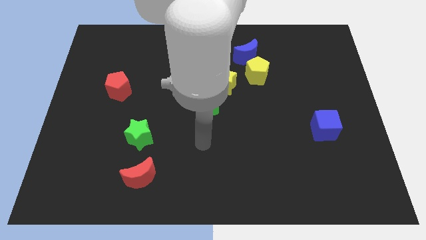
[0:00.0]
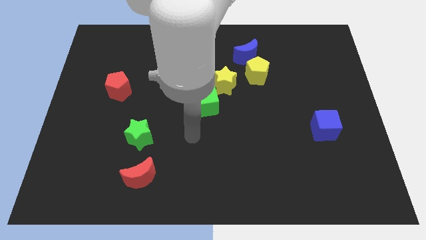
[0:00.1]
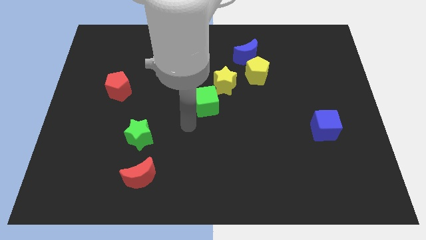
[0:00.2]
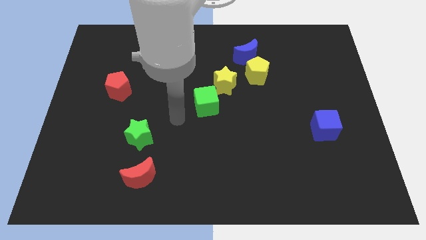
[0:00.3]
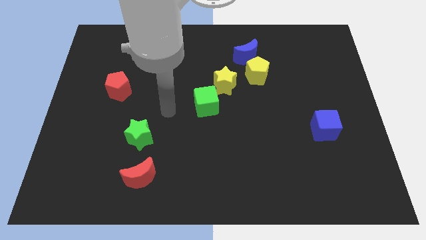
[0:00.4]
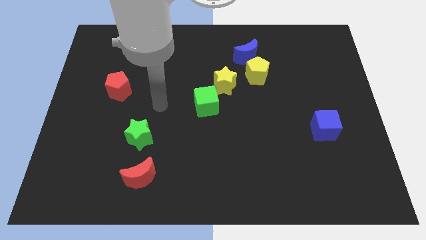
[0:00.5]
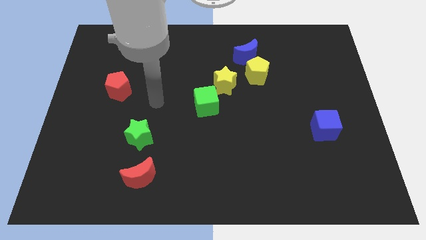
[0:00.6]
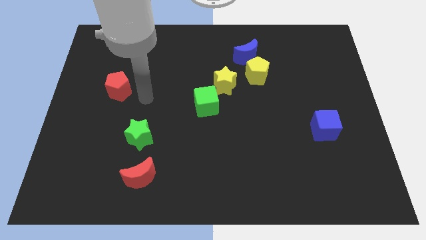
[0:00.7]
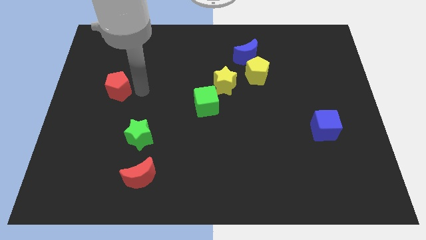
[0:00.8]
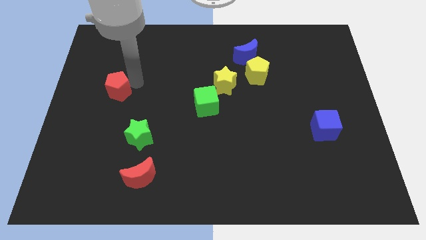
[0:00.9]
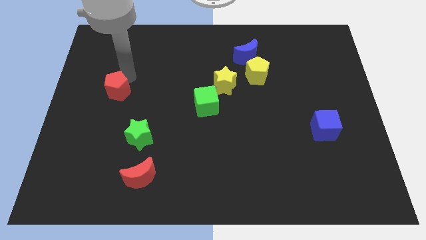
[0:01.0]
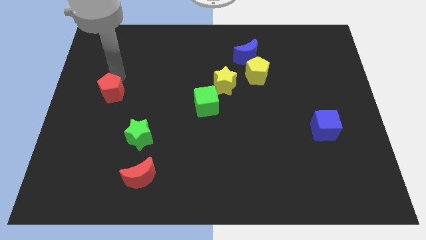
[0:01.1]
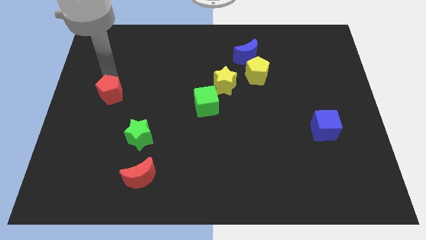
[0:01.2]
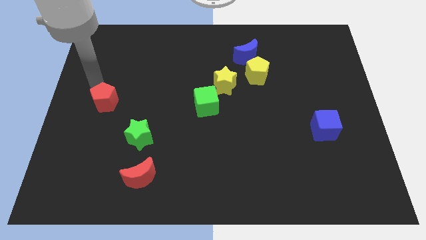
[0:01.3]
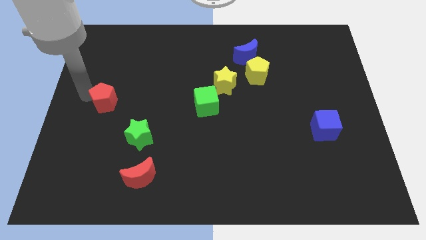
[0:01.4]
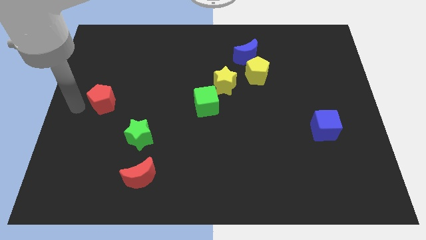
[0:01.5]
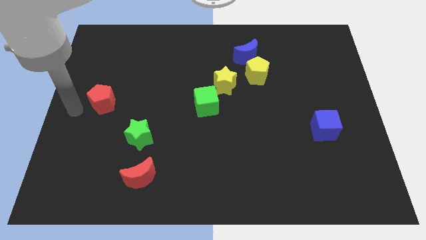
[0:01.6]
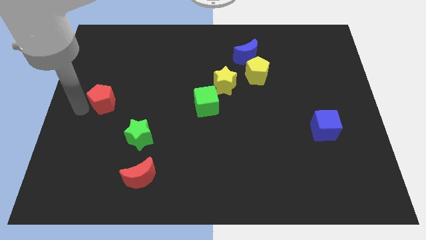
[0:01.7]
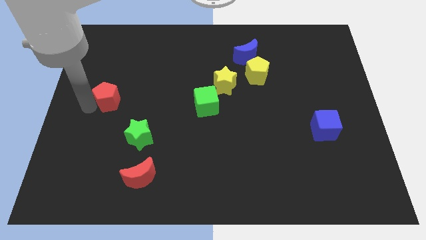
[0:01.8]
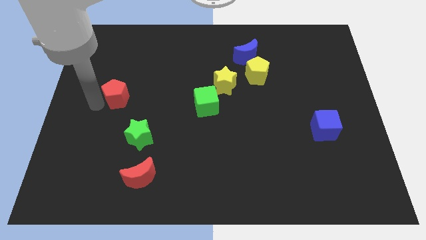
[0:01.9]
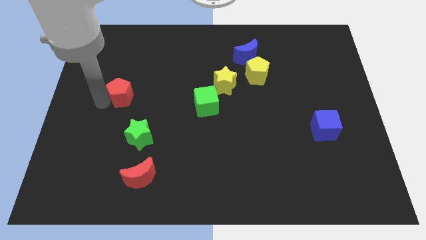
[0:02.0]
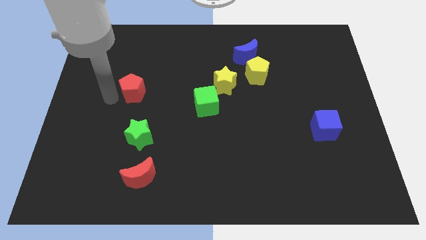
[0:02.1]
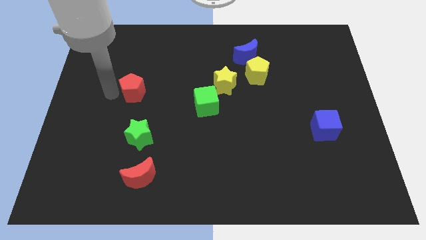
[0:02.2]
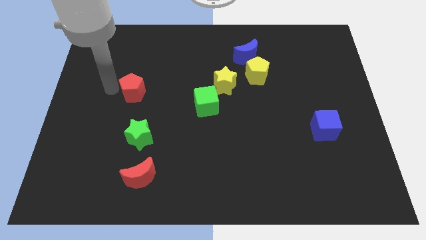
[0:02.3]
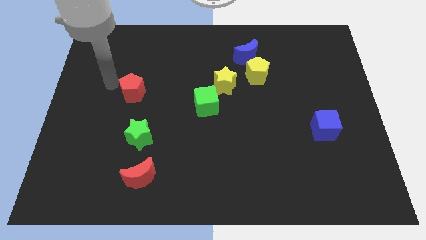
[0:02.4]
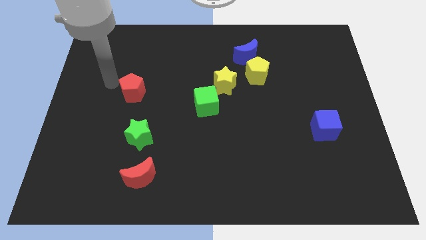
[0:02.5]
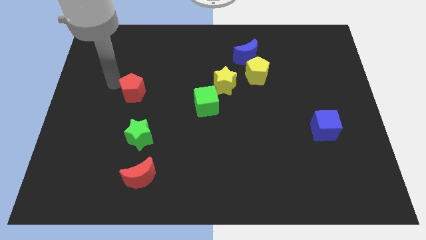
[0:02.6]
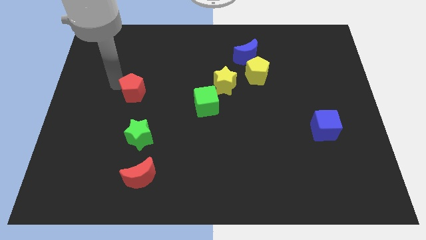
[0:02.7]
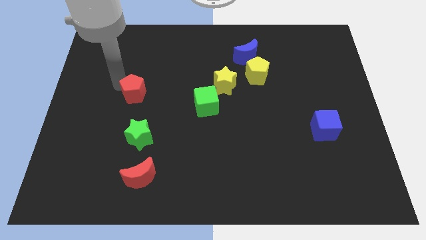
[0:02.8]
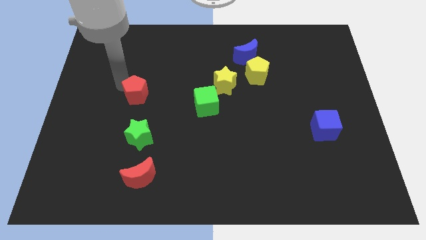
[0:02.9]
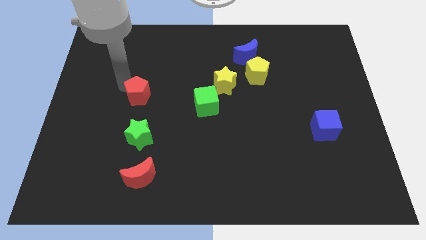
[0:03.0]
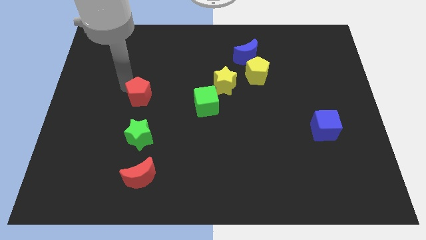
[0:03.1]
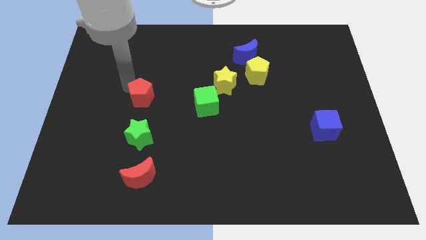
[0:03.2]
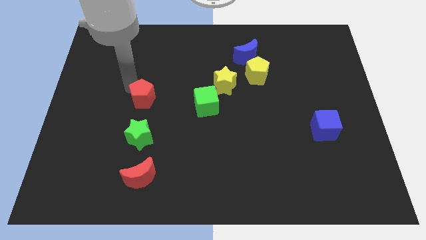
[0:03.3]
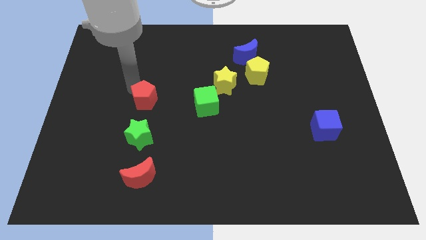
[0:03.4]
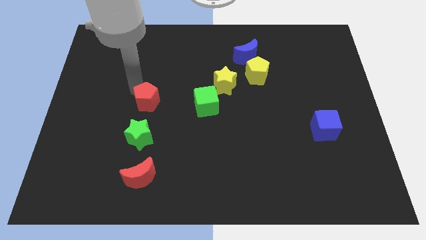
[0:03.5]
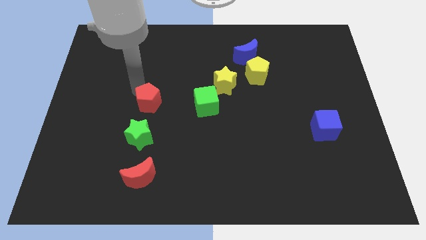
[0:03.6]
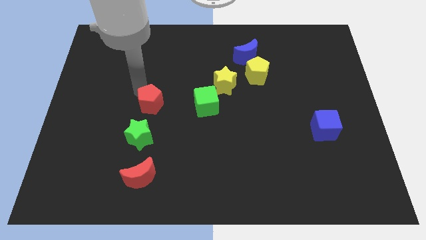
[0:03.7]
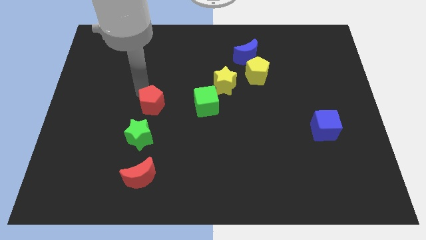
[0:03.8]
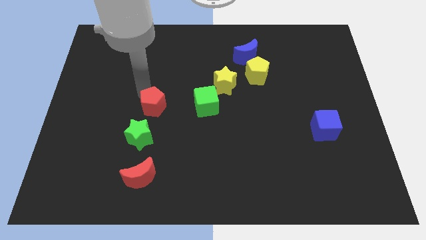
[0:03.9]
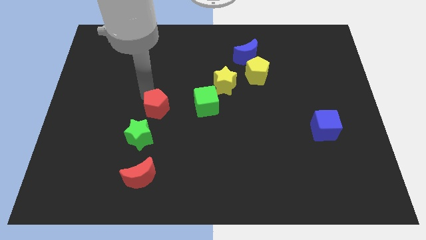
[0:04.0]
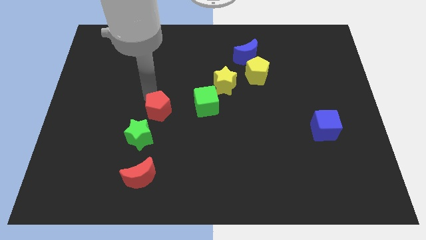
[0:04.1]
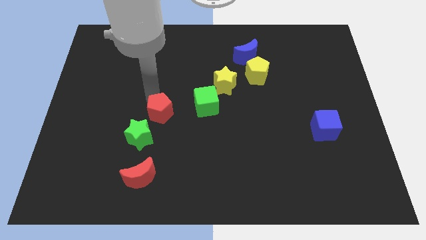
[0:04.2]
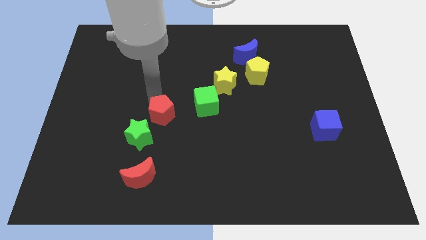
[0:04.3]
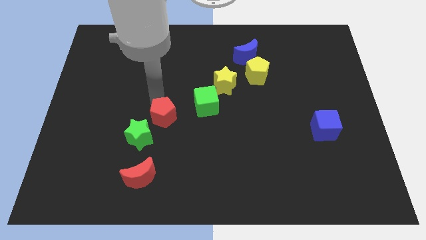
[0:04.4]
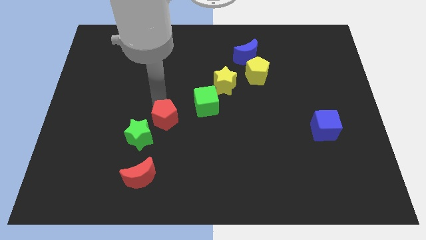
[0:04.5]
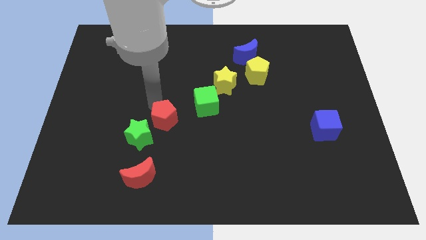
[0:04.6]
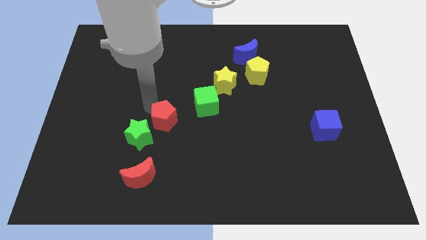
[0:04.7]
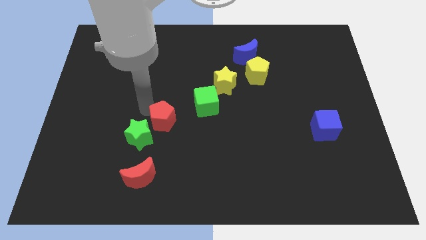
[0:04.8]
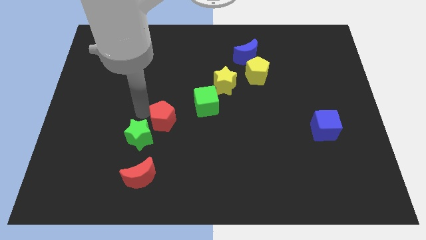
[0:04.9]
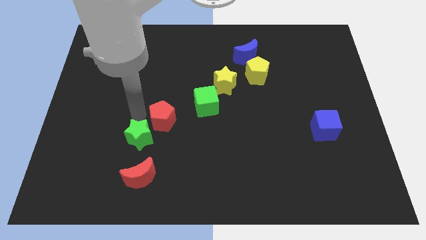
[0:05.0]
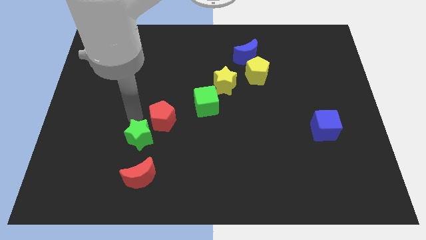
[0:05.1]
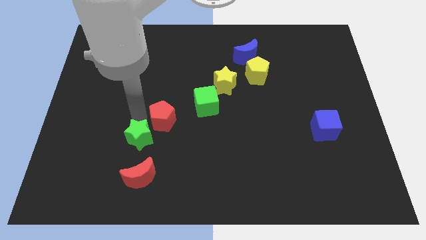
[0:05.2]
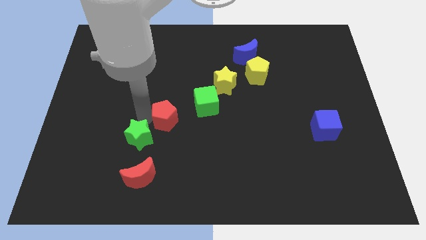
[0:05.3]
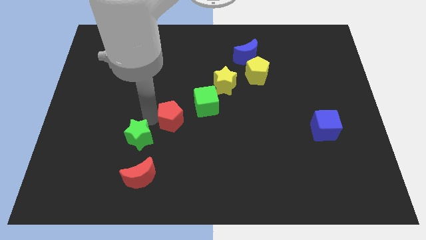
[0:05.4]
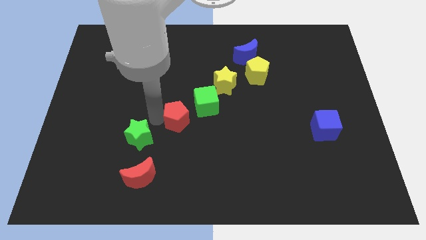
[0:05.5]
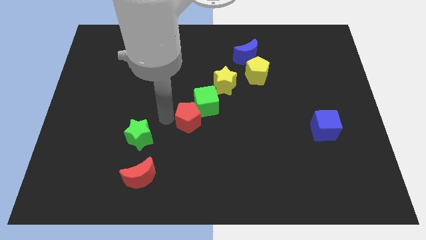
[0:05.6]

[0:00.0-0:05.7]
slide the red pentagon below the green cube

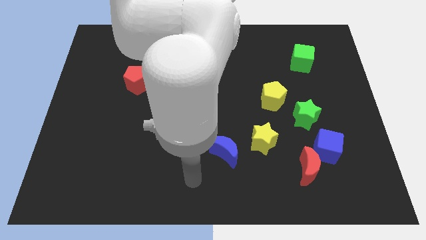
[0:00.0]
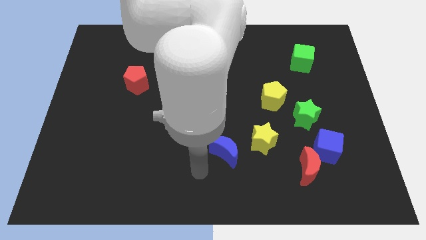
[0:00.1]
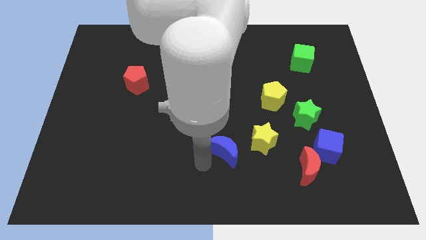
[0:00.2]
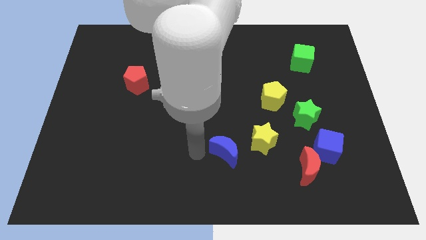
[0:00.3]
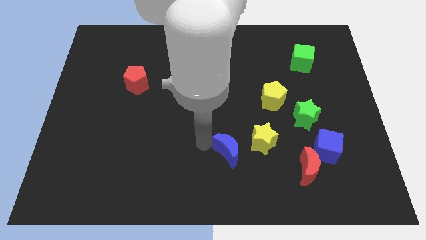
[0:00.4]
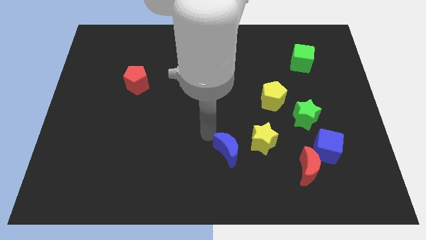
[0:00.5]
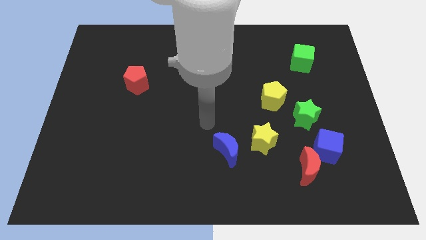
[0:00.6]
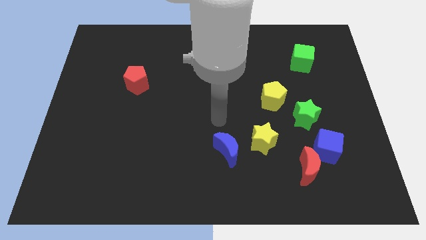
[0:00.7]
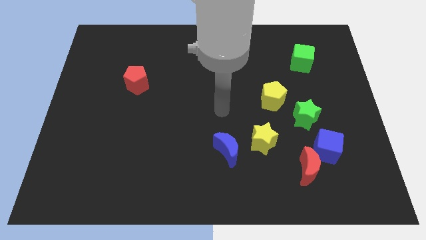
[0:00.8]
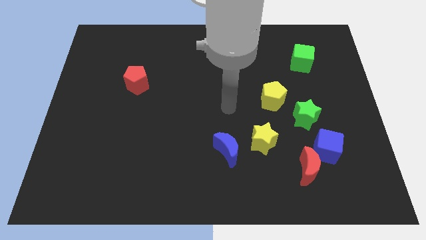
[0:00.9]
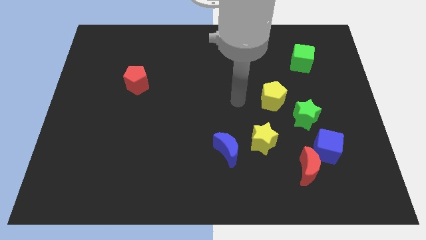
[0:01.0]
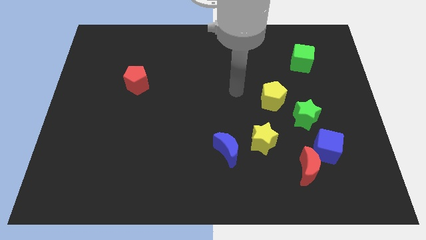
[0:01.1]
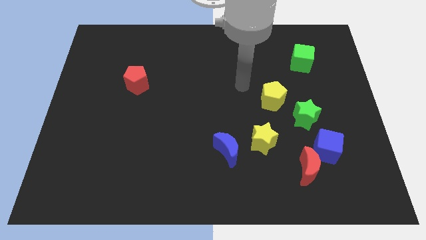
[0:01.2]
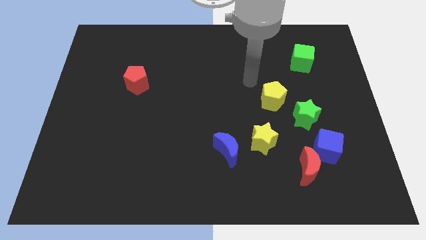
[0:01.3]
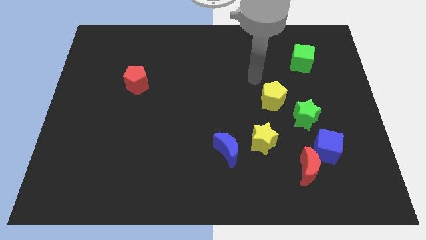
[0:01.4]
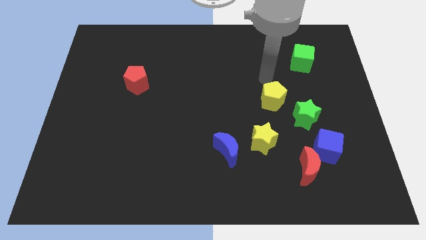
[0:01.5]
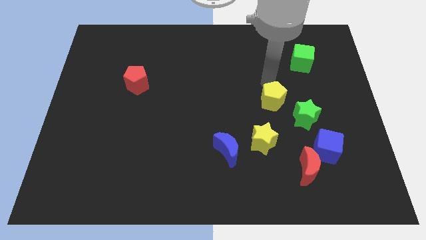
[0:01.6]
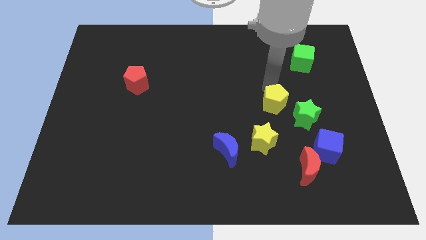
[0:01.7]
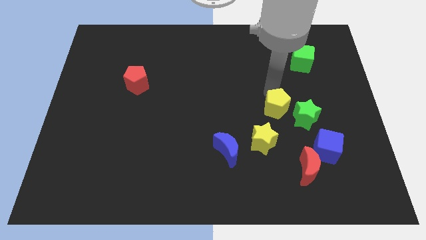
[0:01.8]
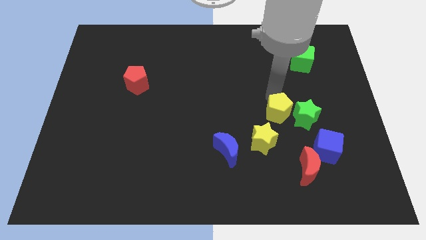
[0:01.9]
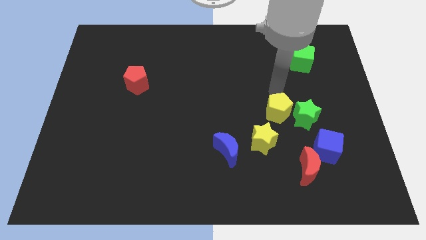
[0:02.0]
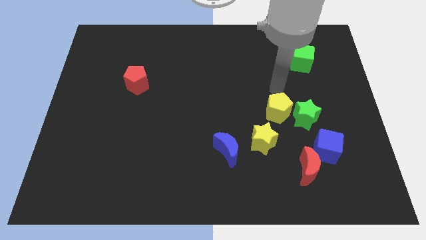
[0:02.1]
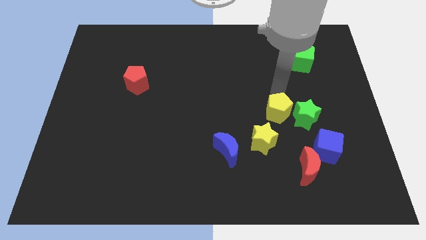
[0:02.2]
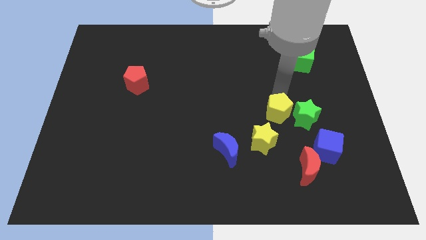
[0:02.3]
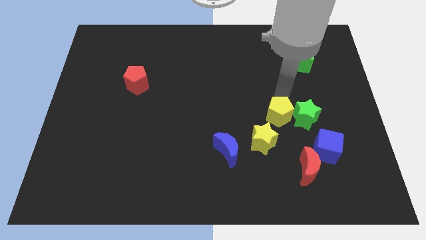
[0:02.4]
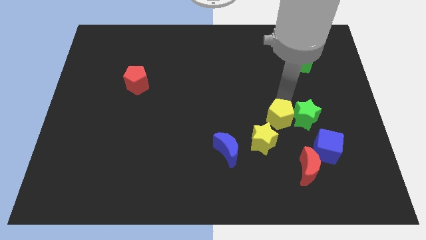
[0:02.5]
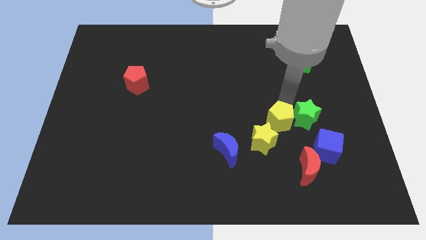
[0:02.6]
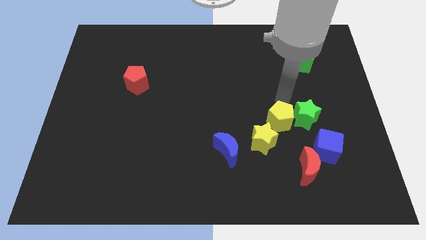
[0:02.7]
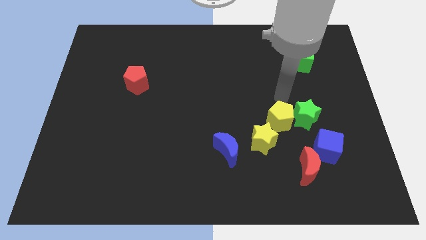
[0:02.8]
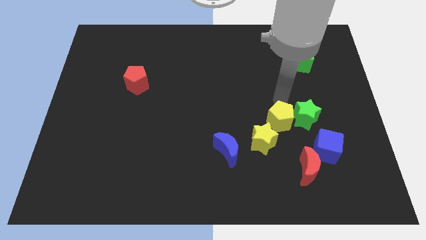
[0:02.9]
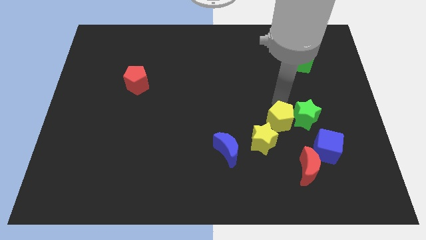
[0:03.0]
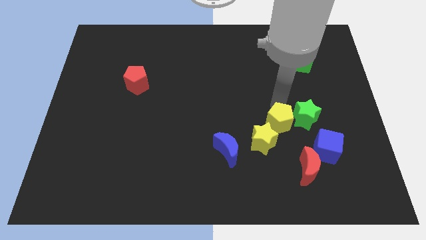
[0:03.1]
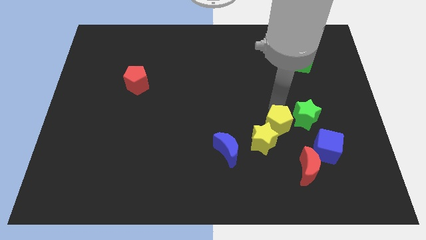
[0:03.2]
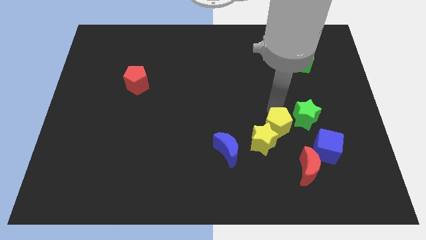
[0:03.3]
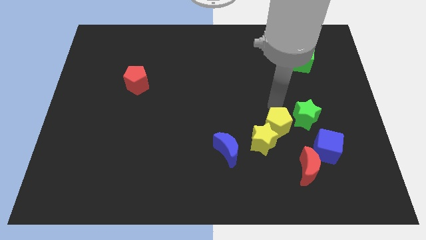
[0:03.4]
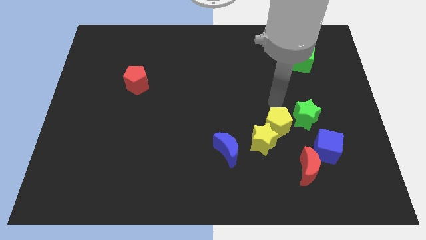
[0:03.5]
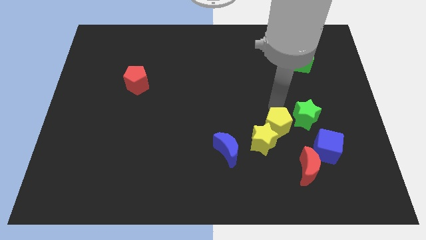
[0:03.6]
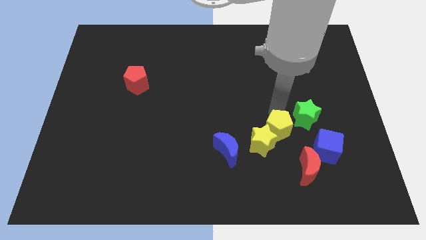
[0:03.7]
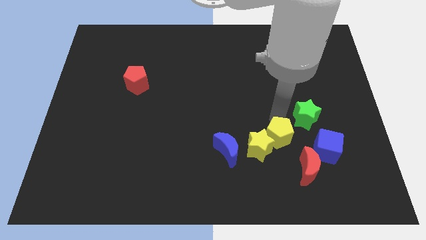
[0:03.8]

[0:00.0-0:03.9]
push the yellow pentagon to the left side of the blue cube
